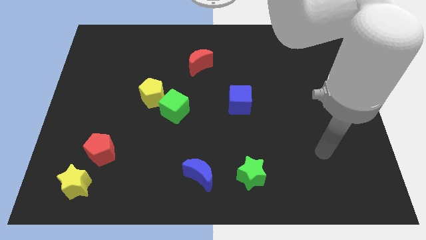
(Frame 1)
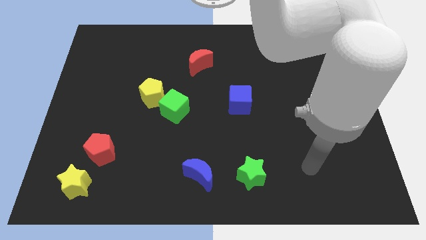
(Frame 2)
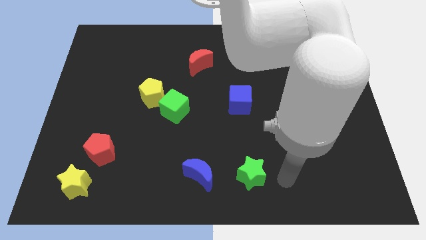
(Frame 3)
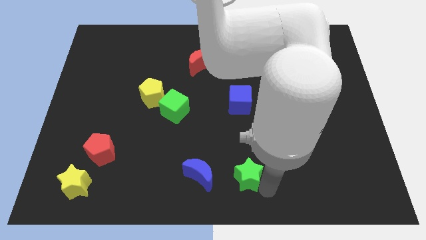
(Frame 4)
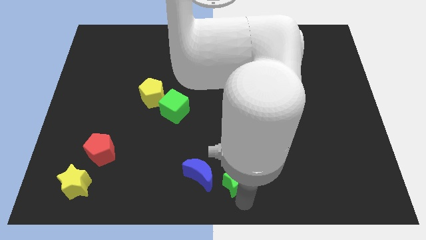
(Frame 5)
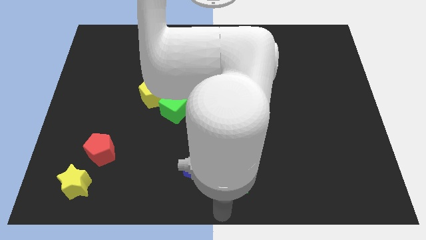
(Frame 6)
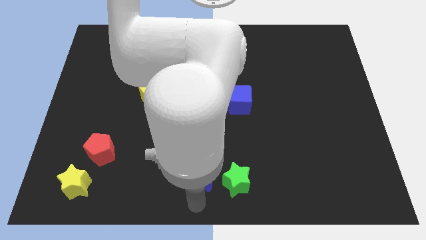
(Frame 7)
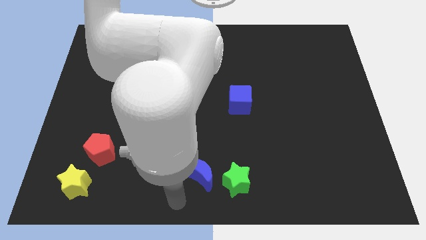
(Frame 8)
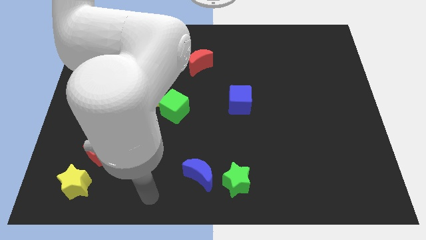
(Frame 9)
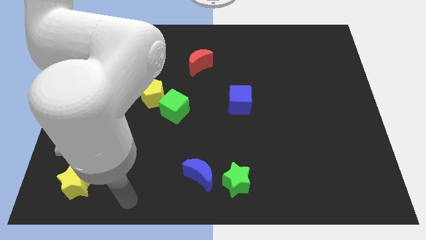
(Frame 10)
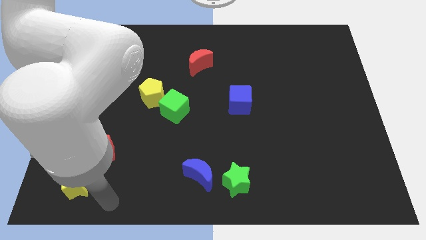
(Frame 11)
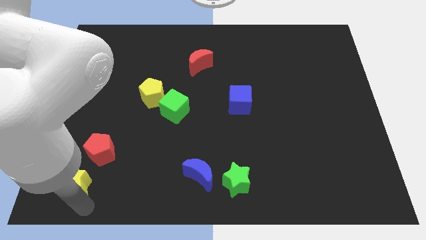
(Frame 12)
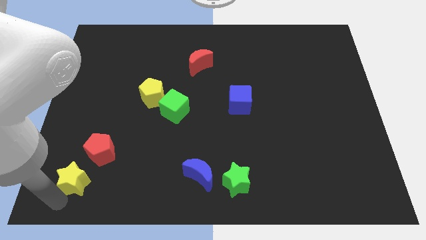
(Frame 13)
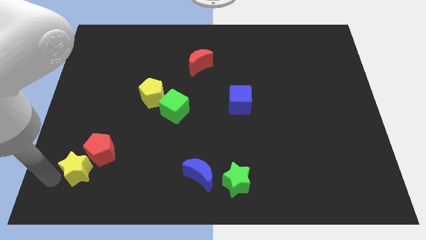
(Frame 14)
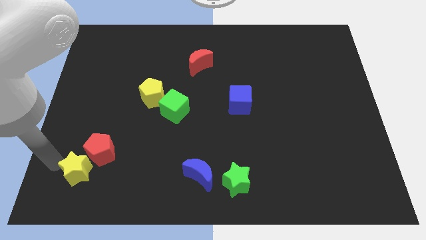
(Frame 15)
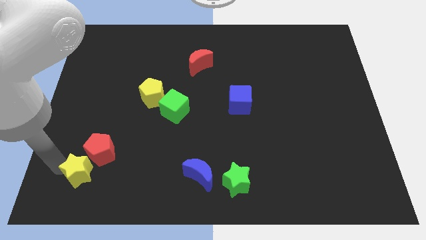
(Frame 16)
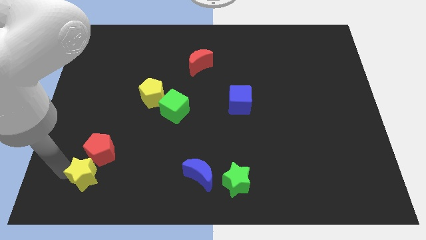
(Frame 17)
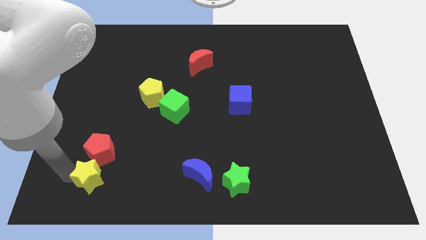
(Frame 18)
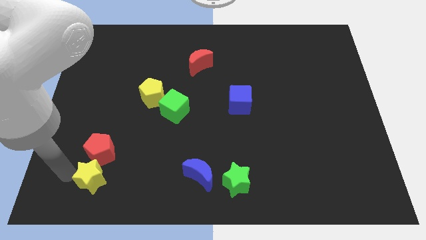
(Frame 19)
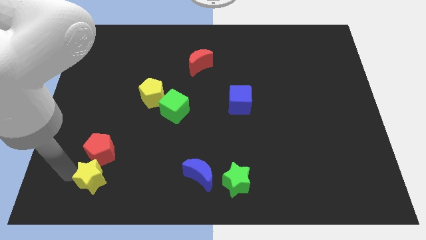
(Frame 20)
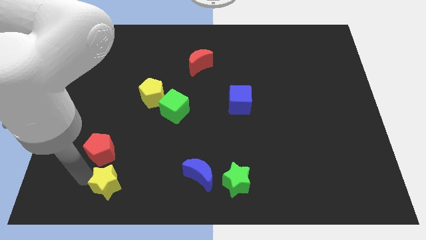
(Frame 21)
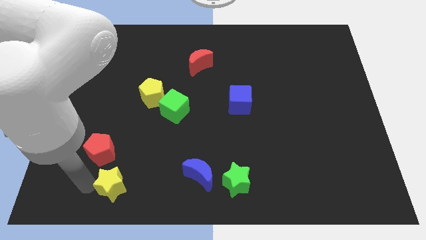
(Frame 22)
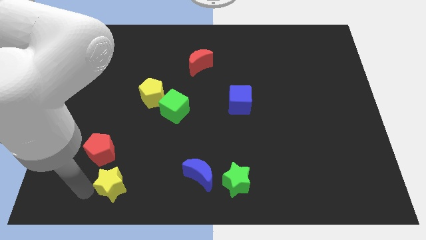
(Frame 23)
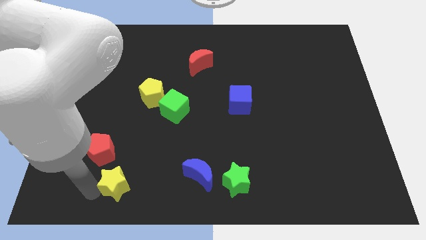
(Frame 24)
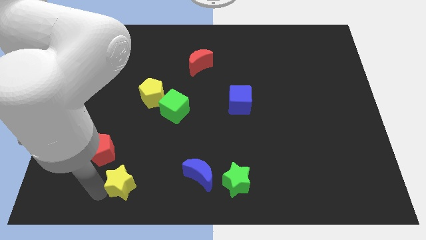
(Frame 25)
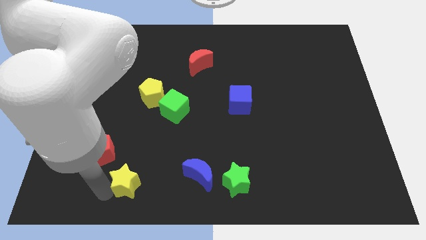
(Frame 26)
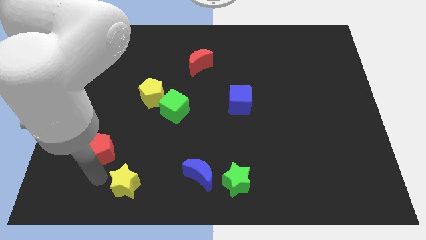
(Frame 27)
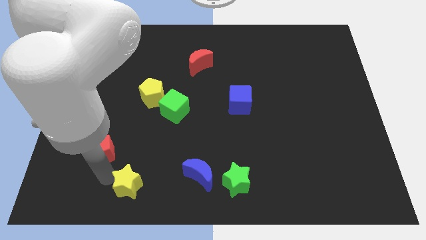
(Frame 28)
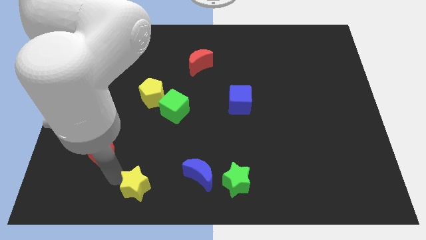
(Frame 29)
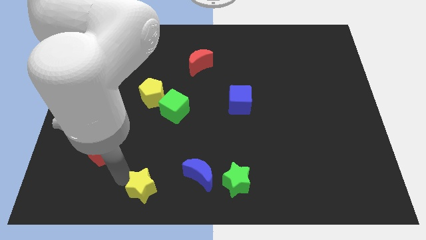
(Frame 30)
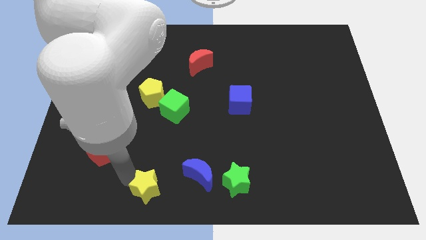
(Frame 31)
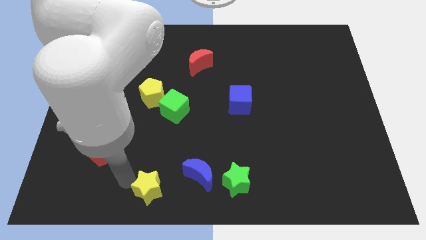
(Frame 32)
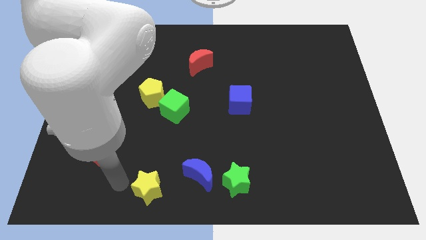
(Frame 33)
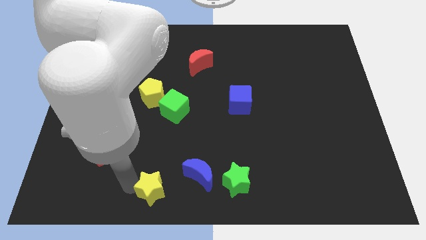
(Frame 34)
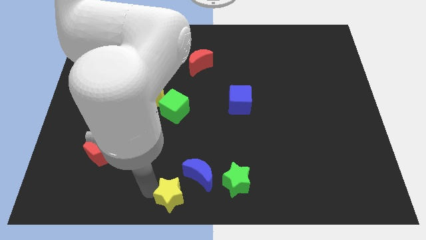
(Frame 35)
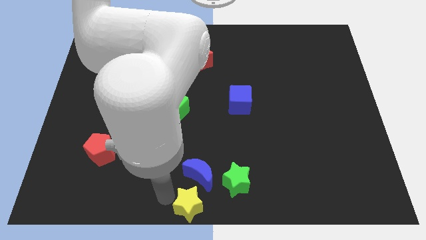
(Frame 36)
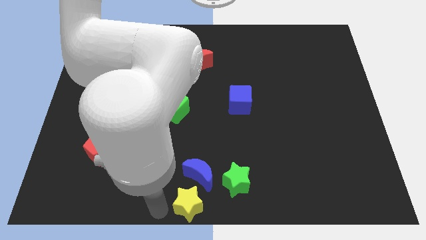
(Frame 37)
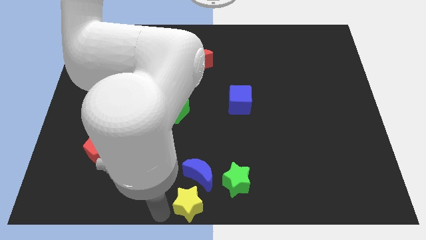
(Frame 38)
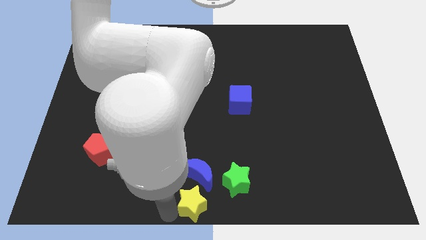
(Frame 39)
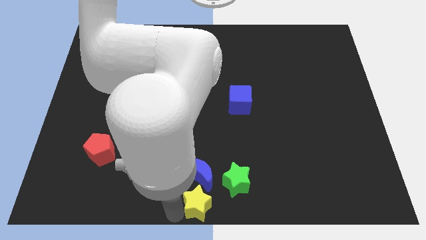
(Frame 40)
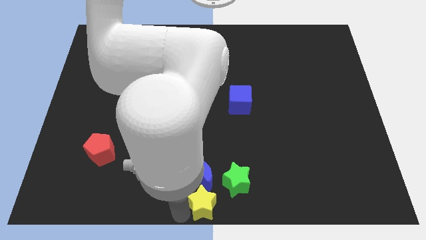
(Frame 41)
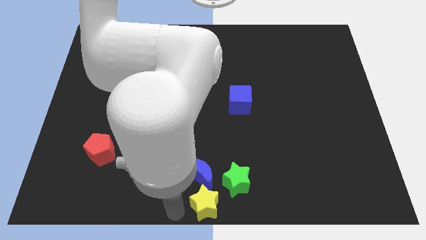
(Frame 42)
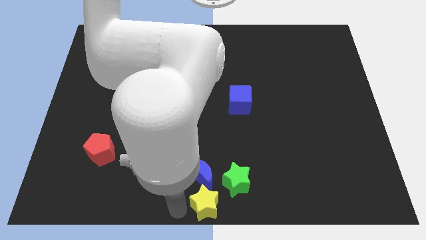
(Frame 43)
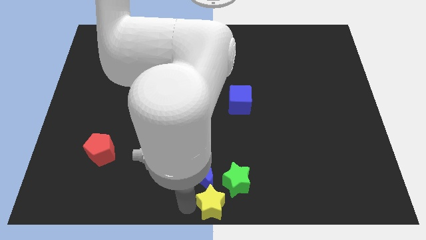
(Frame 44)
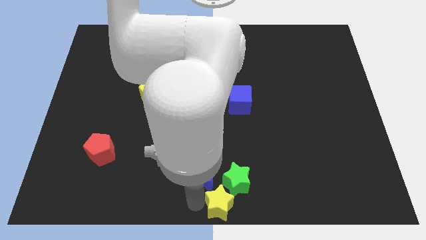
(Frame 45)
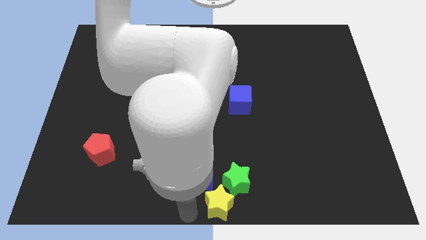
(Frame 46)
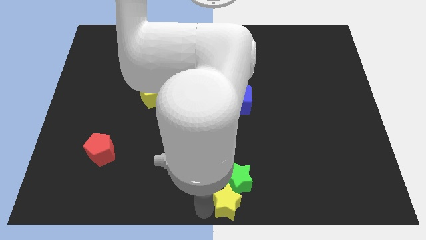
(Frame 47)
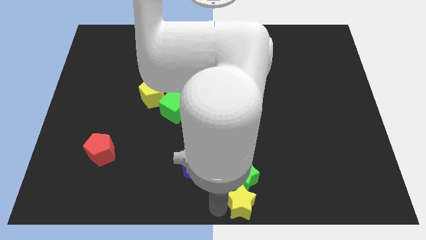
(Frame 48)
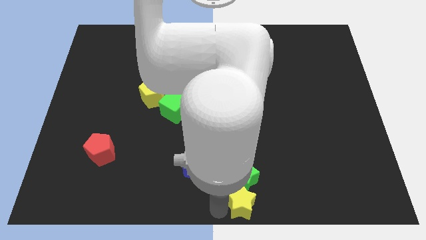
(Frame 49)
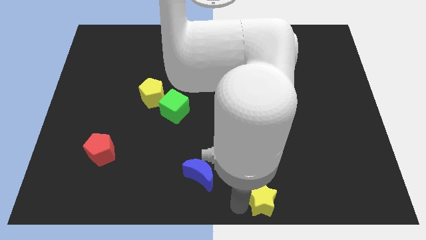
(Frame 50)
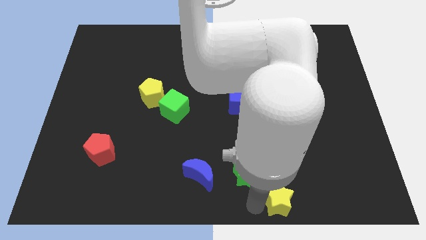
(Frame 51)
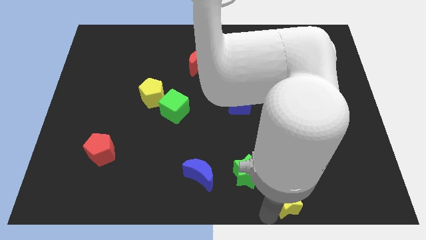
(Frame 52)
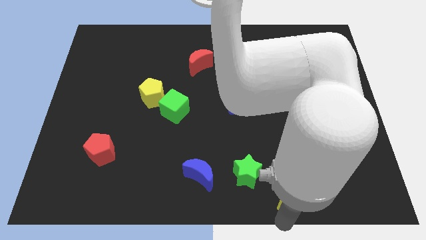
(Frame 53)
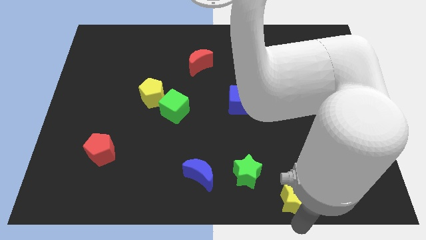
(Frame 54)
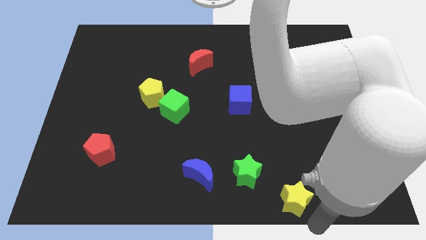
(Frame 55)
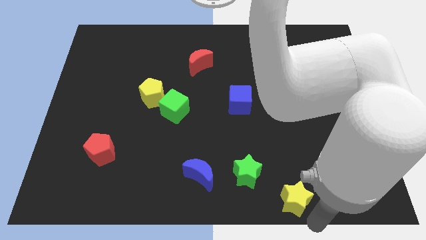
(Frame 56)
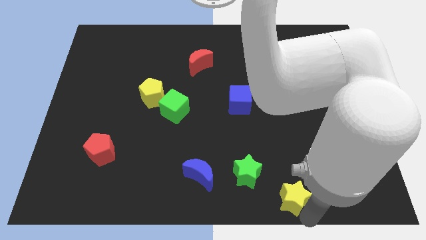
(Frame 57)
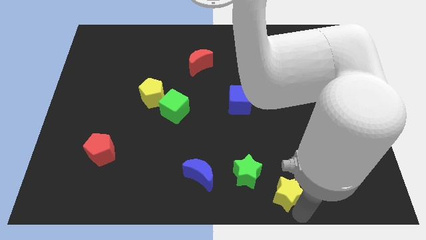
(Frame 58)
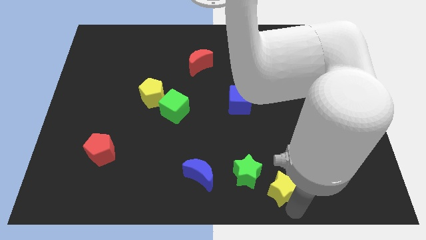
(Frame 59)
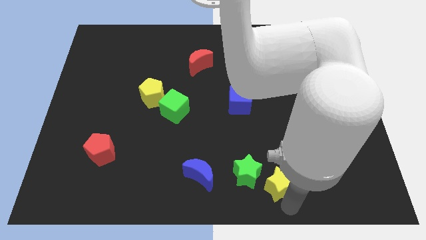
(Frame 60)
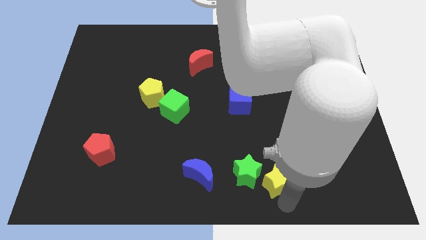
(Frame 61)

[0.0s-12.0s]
slide the yellow star right of the blue moon

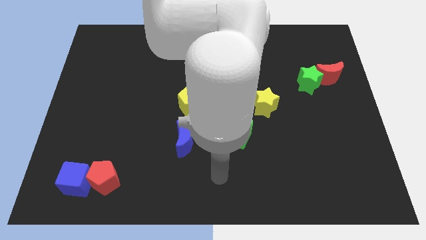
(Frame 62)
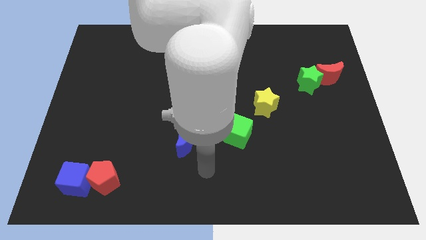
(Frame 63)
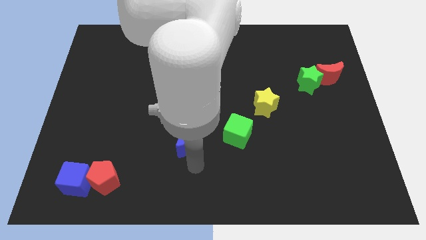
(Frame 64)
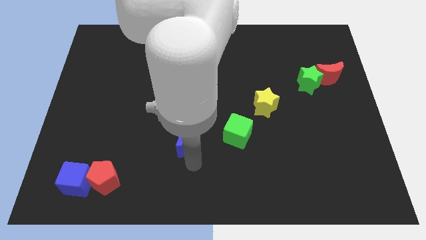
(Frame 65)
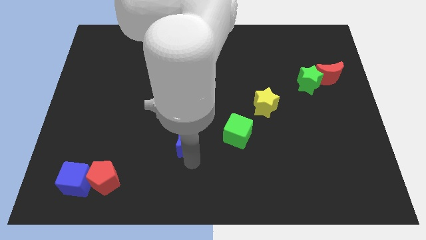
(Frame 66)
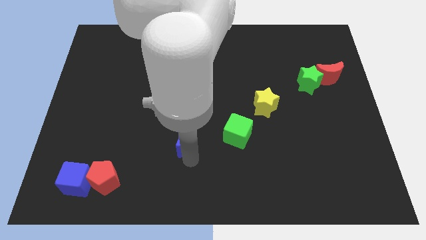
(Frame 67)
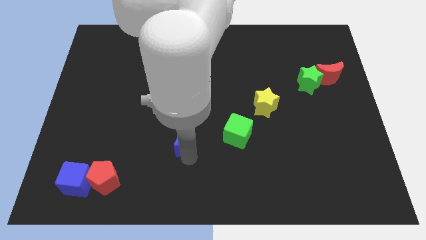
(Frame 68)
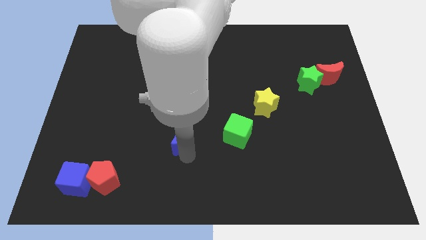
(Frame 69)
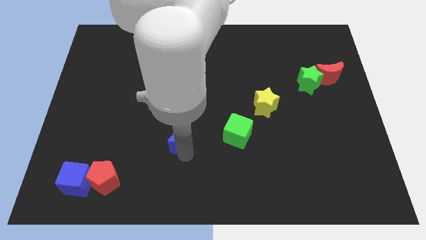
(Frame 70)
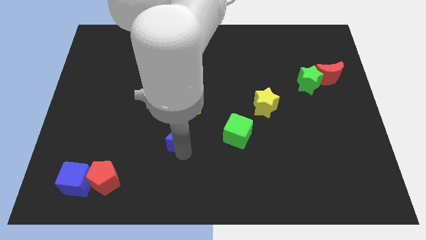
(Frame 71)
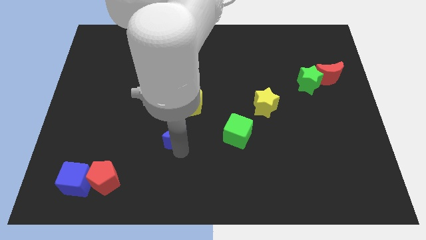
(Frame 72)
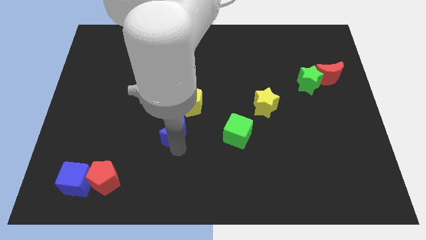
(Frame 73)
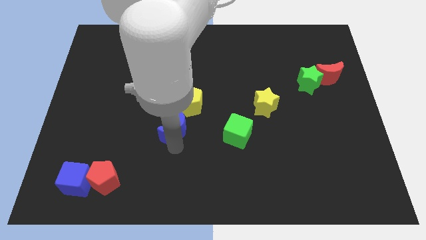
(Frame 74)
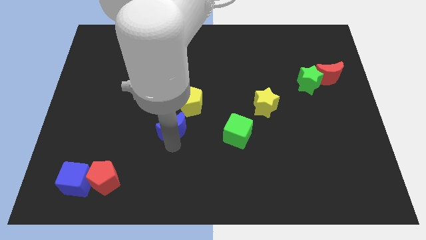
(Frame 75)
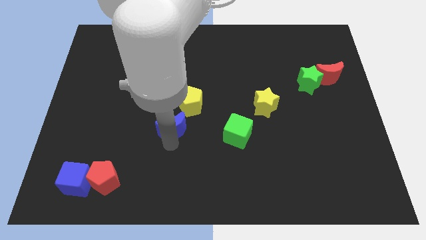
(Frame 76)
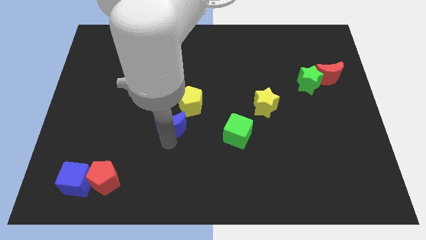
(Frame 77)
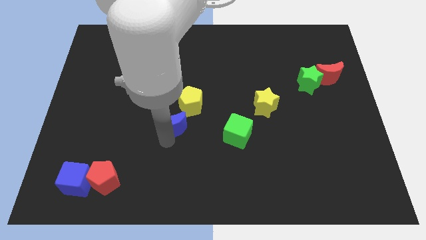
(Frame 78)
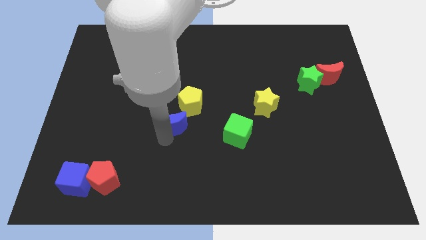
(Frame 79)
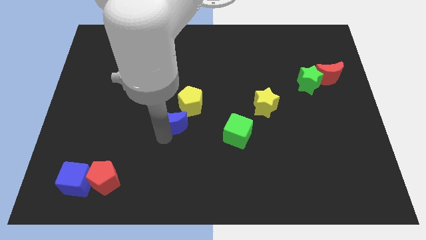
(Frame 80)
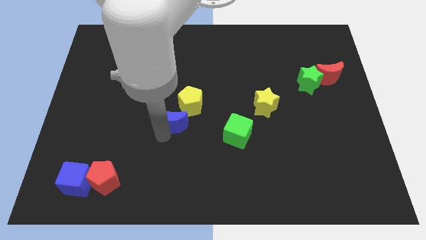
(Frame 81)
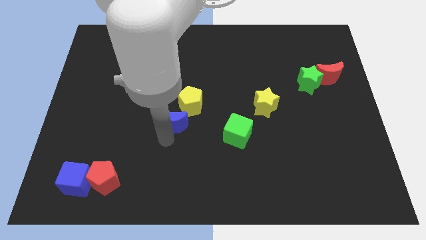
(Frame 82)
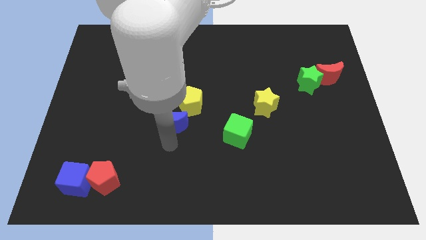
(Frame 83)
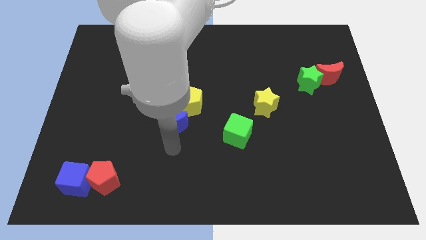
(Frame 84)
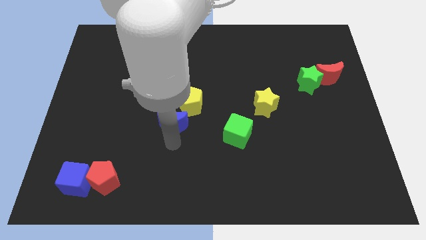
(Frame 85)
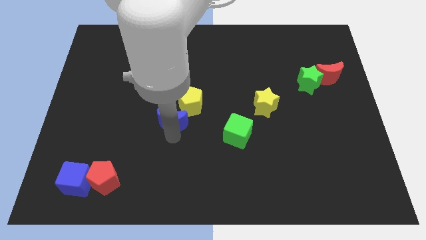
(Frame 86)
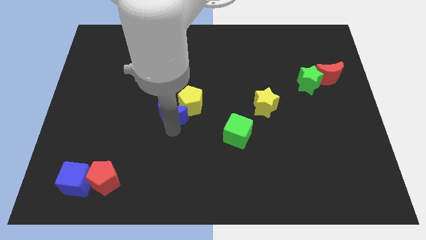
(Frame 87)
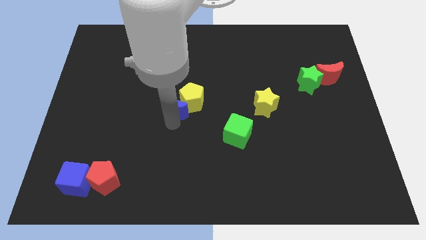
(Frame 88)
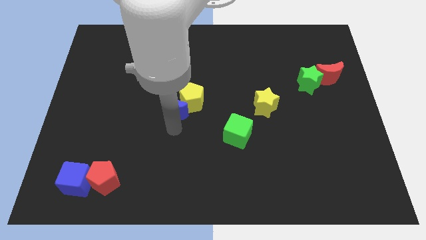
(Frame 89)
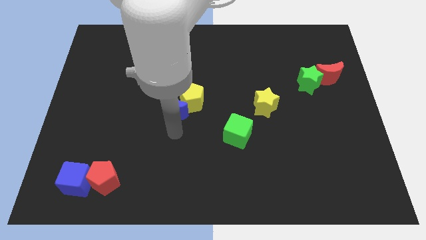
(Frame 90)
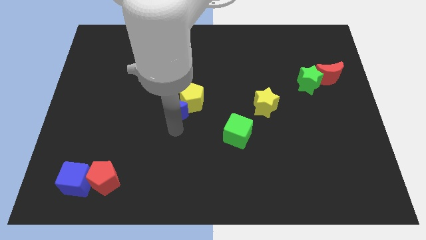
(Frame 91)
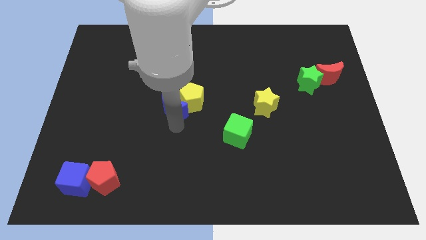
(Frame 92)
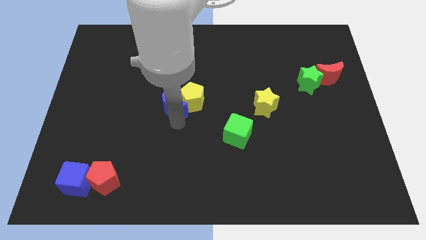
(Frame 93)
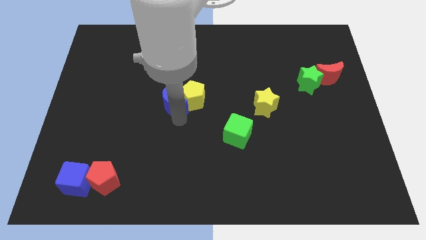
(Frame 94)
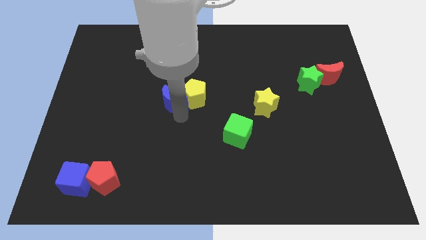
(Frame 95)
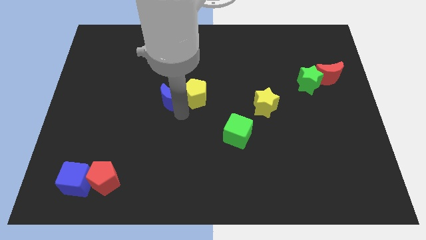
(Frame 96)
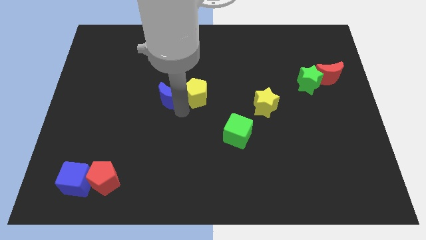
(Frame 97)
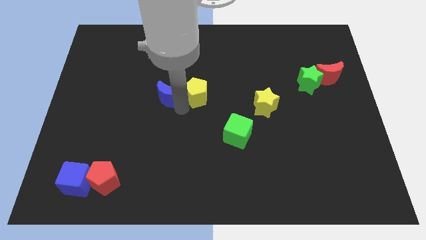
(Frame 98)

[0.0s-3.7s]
move the blue moon to the top left side of the yellow pentagon
